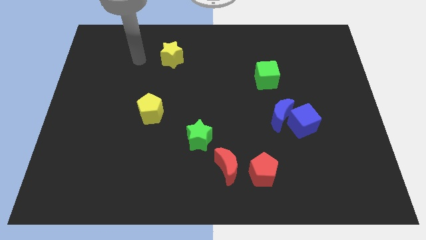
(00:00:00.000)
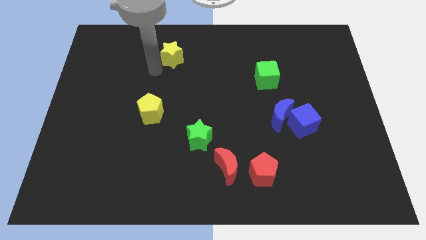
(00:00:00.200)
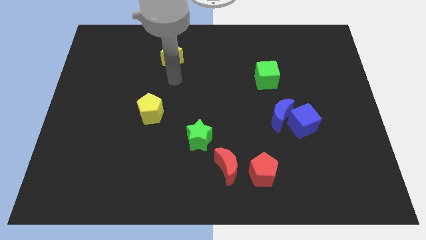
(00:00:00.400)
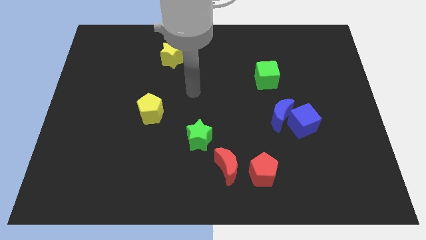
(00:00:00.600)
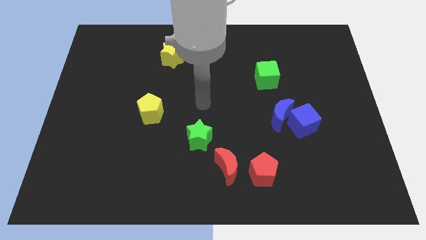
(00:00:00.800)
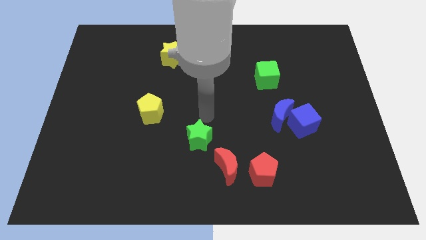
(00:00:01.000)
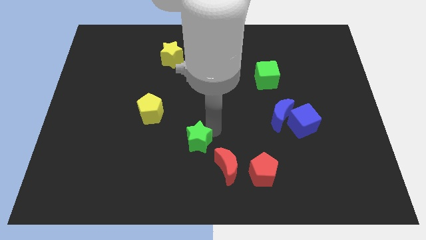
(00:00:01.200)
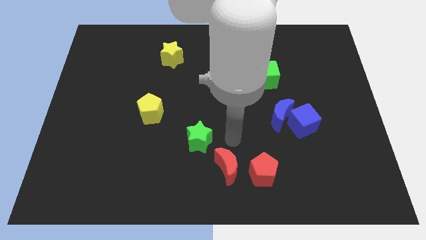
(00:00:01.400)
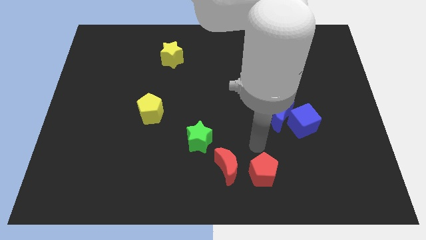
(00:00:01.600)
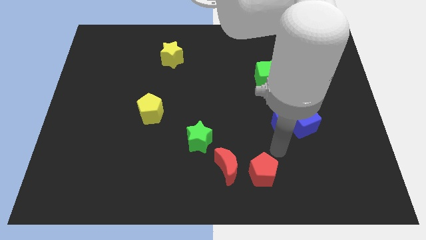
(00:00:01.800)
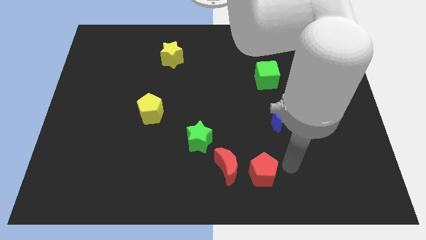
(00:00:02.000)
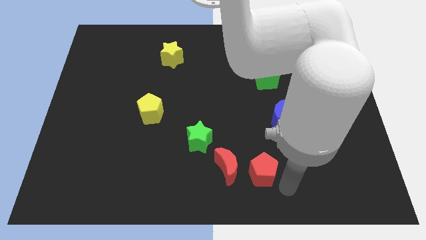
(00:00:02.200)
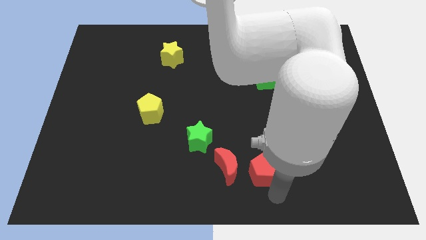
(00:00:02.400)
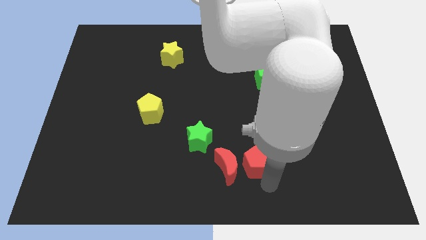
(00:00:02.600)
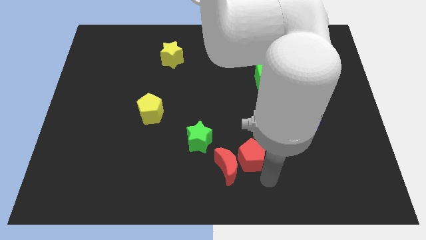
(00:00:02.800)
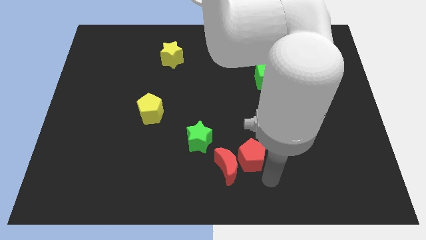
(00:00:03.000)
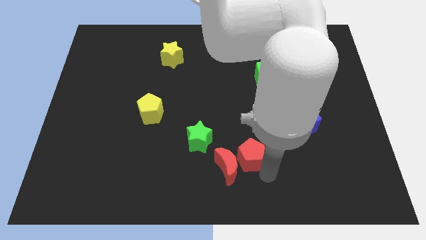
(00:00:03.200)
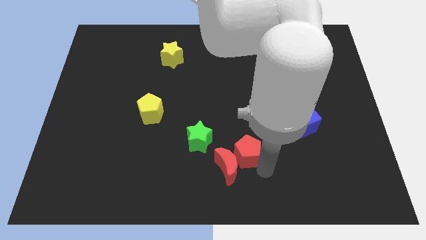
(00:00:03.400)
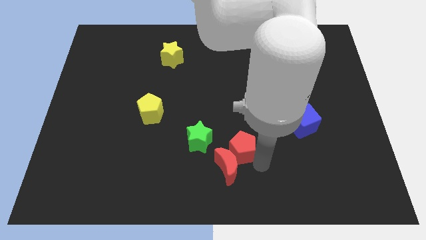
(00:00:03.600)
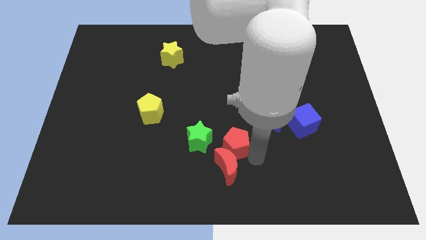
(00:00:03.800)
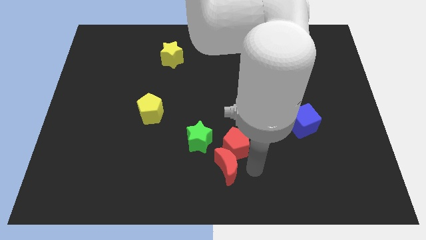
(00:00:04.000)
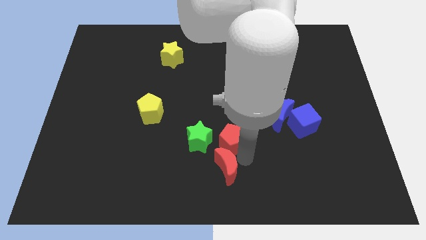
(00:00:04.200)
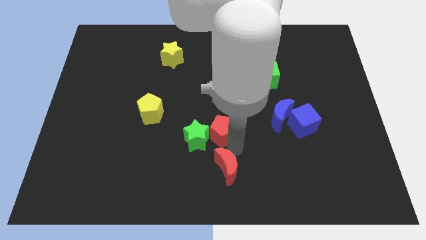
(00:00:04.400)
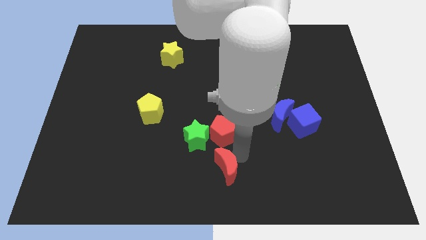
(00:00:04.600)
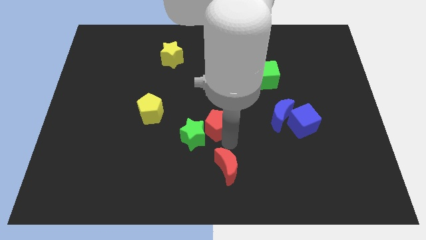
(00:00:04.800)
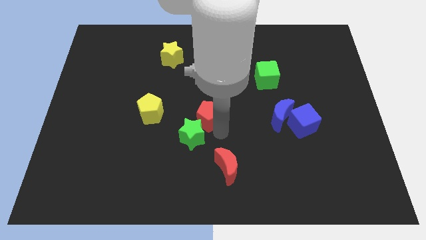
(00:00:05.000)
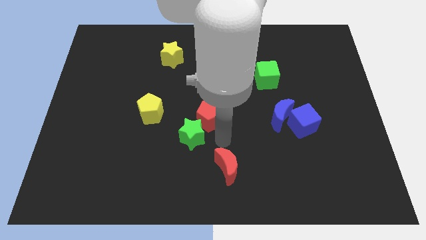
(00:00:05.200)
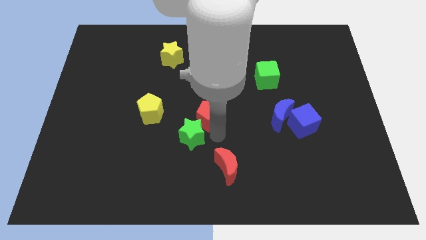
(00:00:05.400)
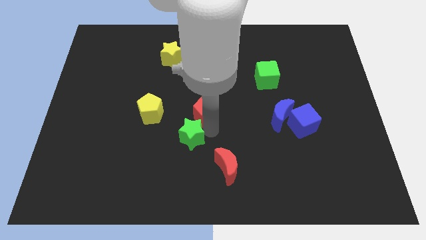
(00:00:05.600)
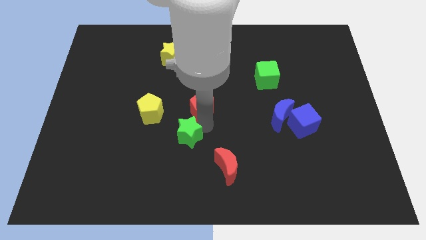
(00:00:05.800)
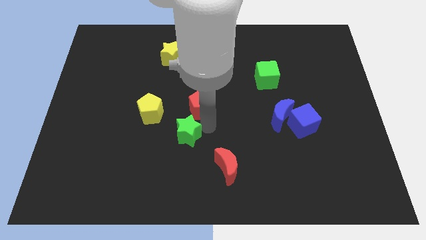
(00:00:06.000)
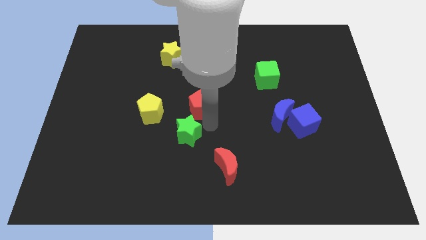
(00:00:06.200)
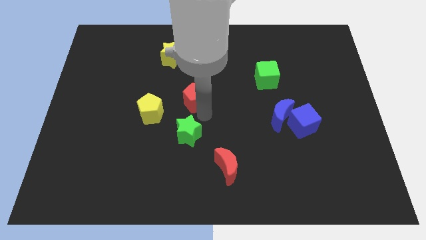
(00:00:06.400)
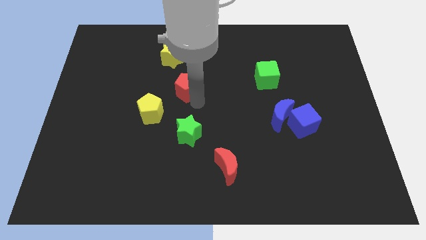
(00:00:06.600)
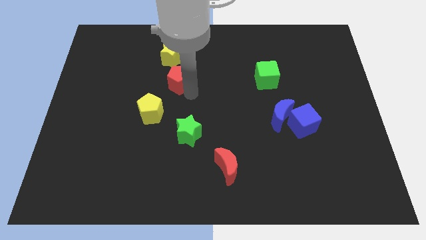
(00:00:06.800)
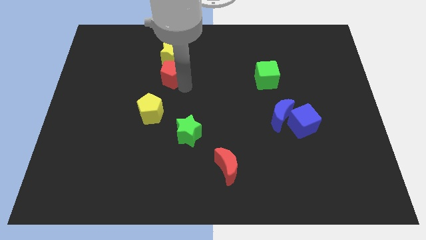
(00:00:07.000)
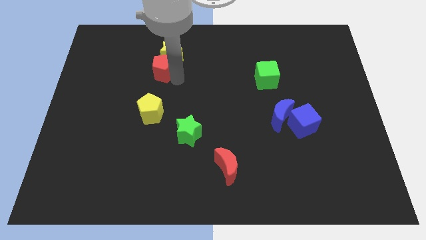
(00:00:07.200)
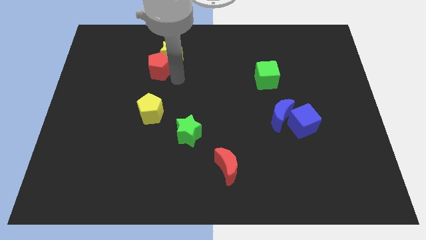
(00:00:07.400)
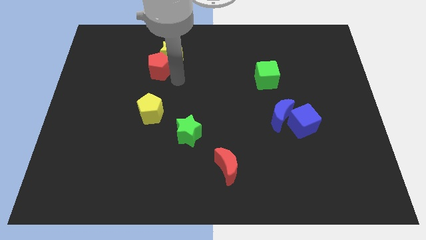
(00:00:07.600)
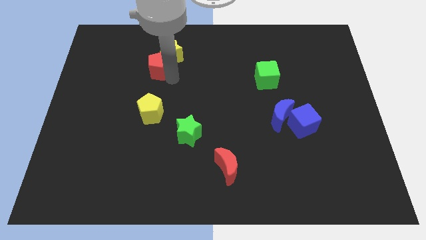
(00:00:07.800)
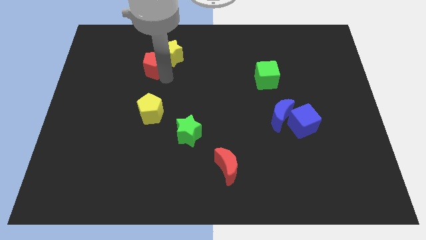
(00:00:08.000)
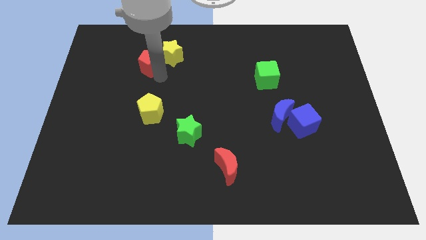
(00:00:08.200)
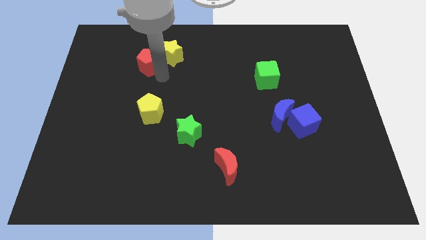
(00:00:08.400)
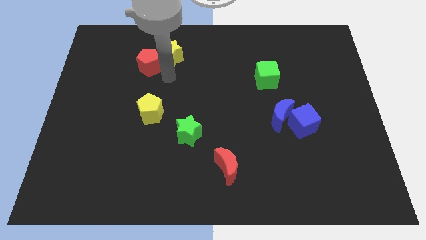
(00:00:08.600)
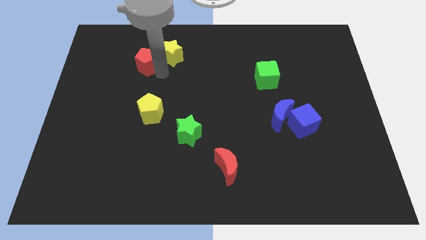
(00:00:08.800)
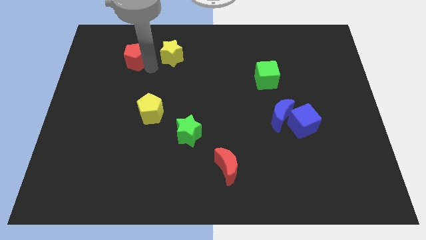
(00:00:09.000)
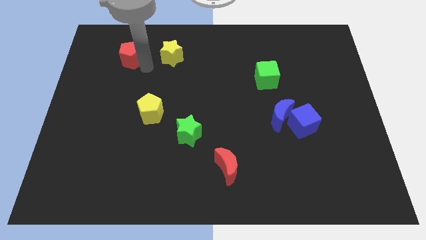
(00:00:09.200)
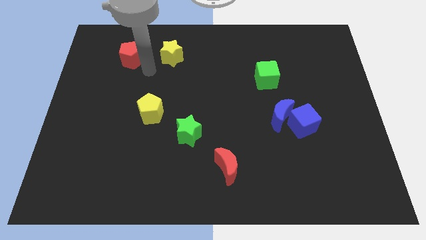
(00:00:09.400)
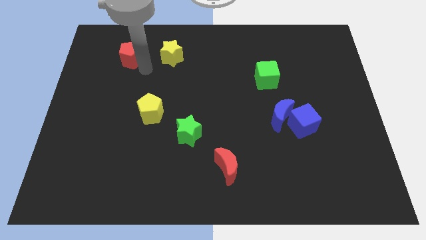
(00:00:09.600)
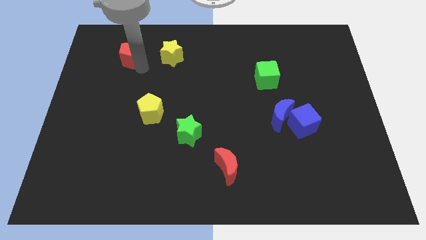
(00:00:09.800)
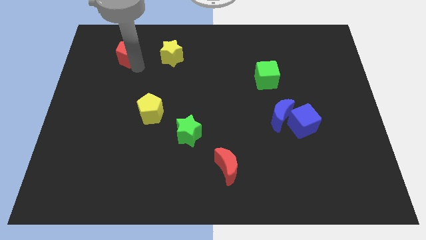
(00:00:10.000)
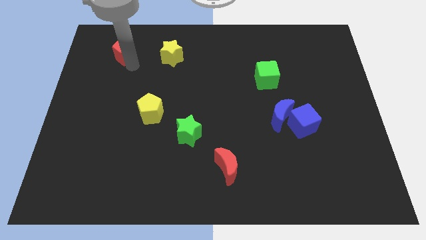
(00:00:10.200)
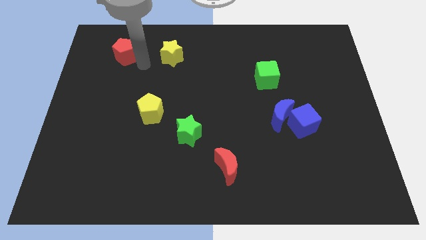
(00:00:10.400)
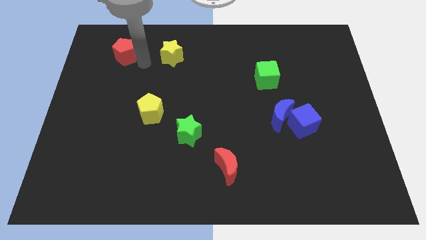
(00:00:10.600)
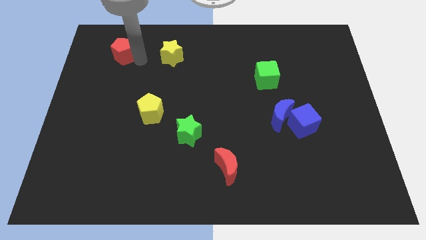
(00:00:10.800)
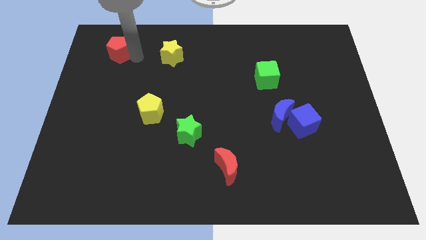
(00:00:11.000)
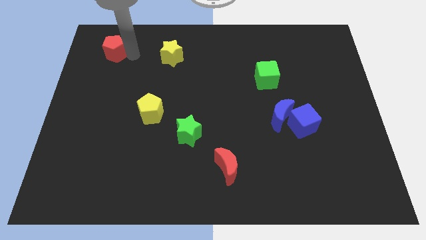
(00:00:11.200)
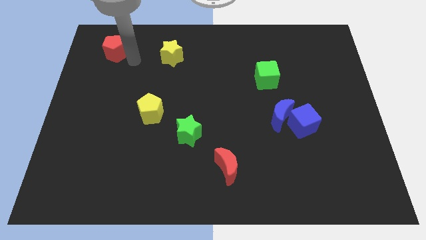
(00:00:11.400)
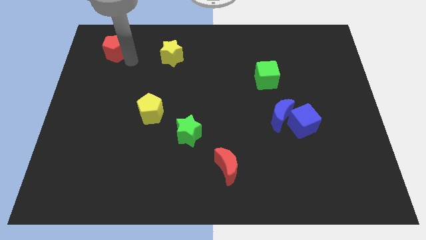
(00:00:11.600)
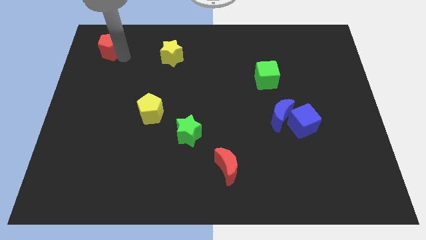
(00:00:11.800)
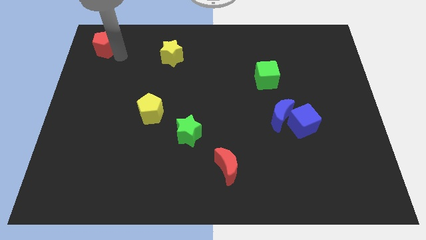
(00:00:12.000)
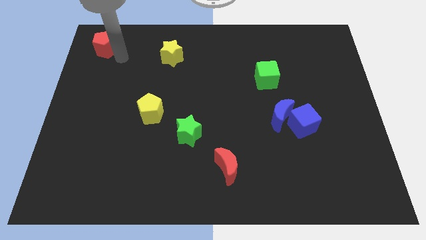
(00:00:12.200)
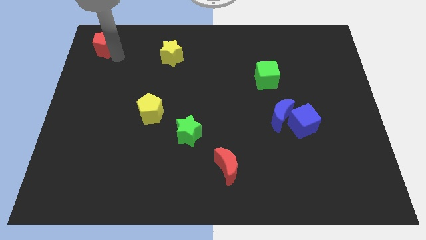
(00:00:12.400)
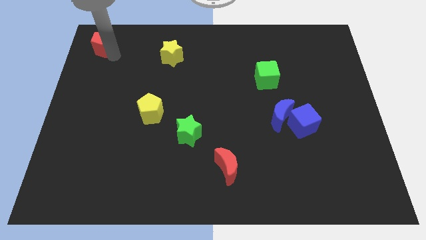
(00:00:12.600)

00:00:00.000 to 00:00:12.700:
slide the red pentagon to the top left

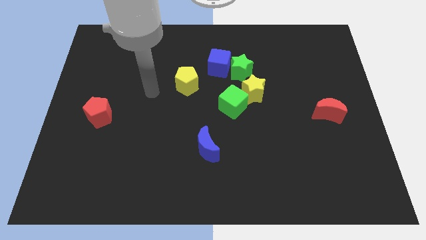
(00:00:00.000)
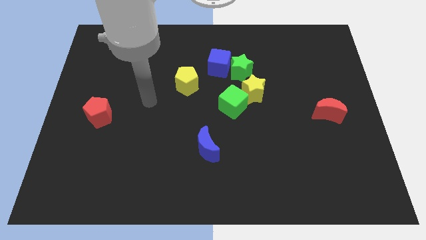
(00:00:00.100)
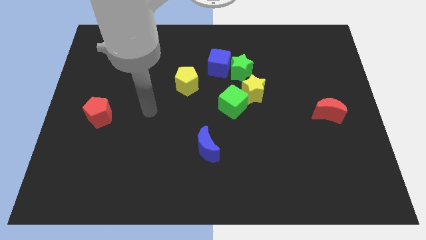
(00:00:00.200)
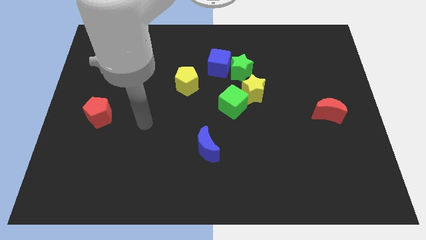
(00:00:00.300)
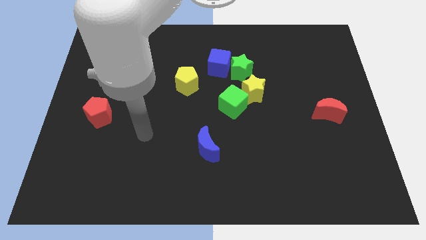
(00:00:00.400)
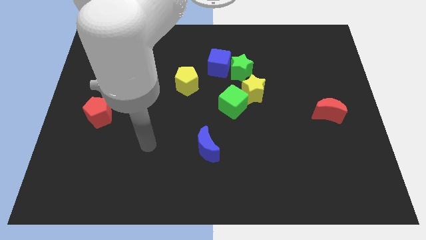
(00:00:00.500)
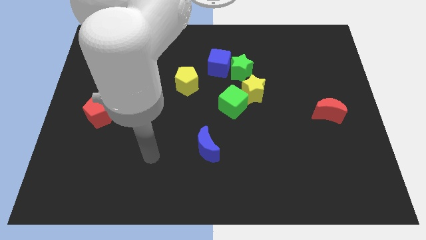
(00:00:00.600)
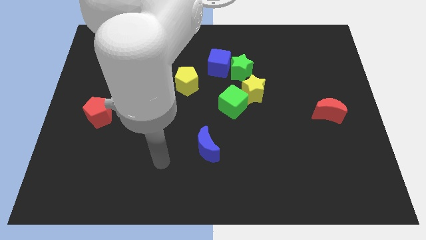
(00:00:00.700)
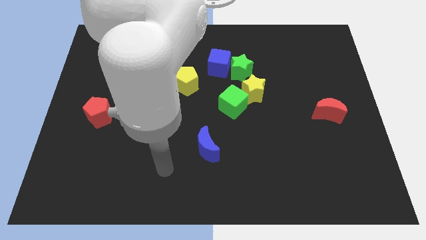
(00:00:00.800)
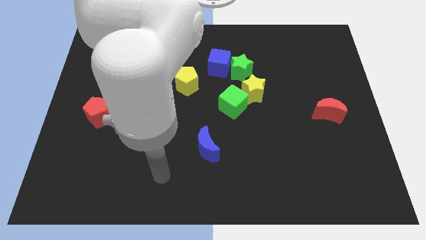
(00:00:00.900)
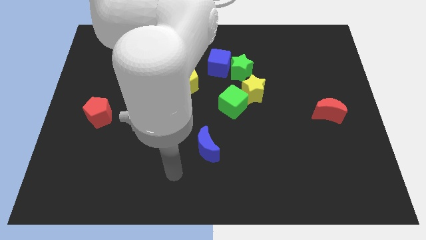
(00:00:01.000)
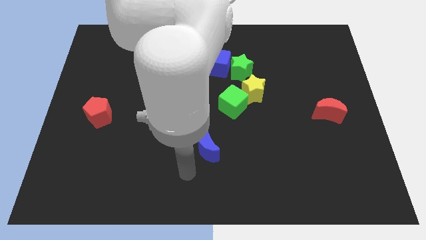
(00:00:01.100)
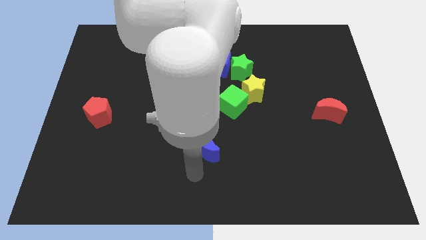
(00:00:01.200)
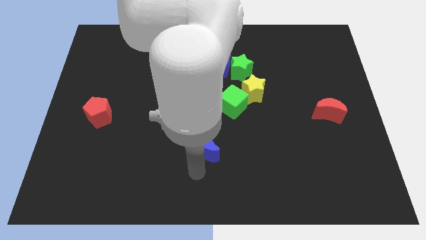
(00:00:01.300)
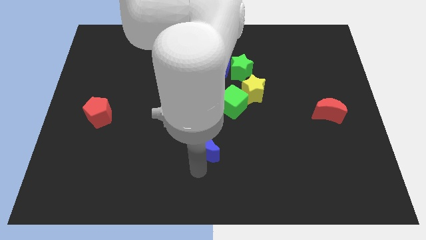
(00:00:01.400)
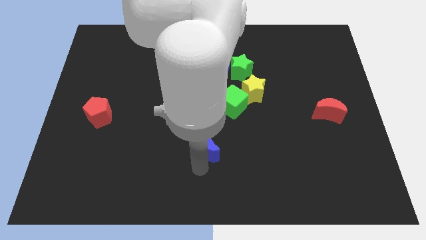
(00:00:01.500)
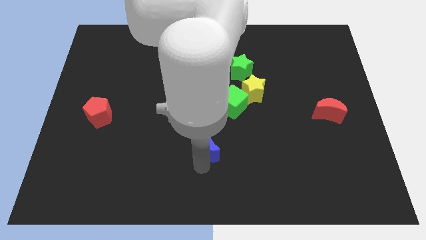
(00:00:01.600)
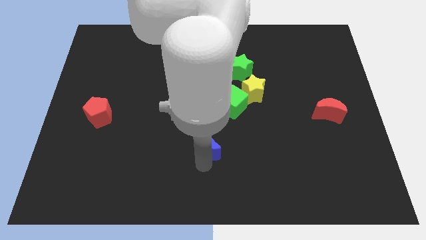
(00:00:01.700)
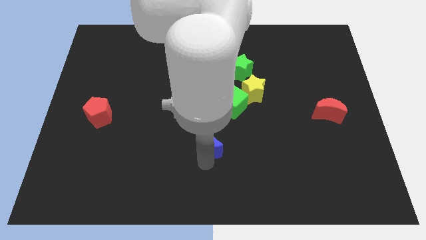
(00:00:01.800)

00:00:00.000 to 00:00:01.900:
put the blue moon to the center of the board
